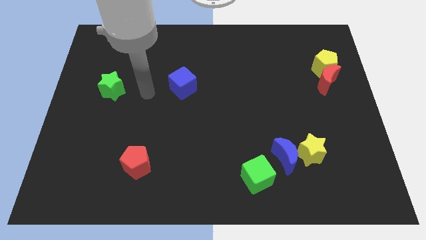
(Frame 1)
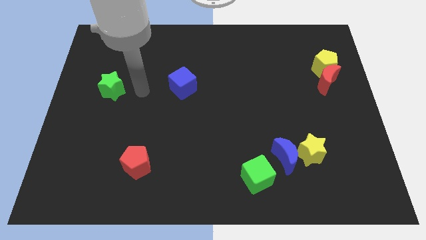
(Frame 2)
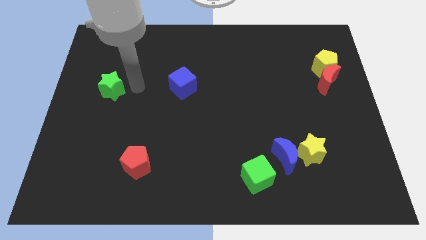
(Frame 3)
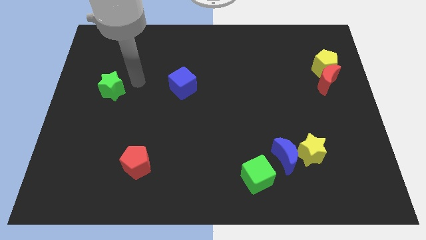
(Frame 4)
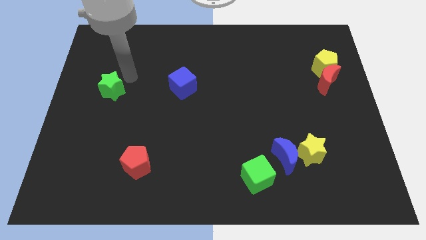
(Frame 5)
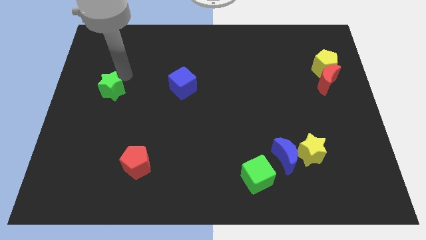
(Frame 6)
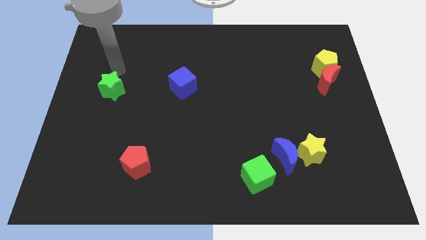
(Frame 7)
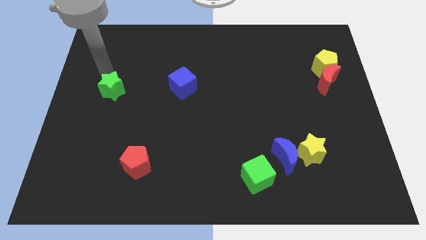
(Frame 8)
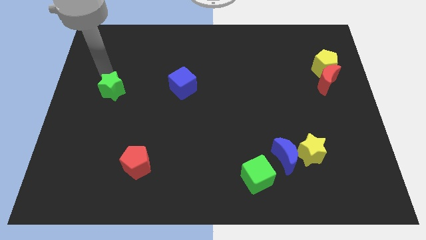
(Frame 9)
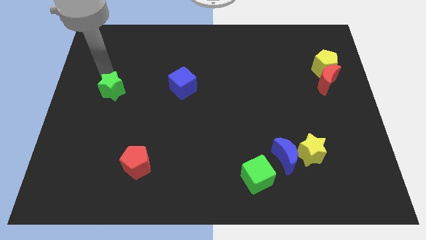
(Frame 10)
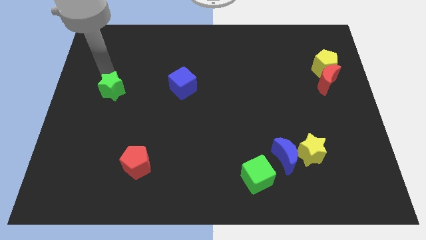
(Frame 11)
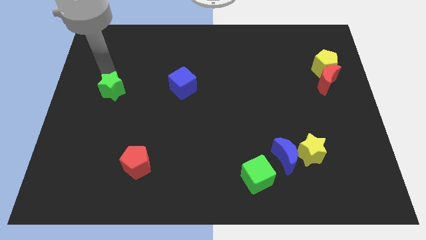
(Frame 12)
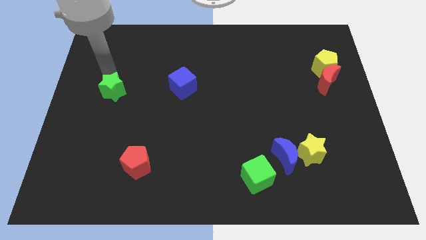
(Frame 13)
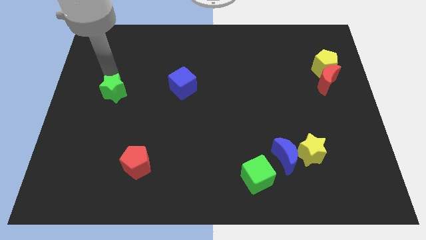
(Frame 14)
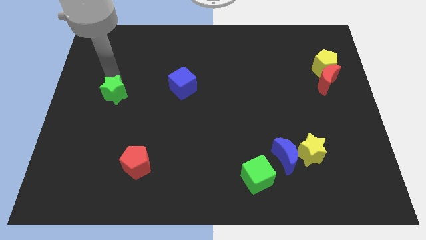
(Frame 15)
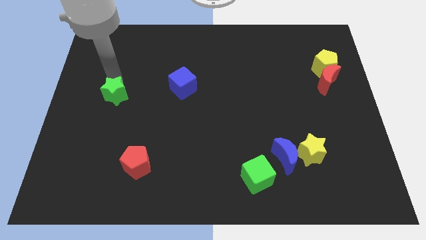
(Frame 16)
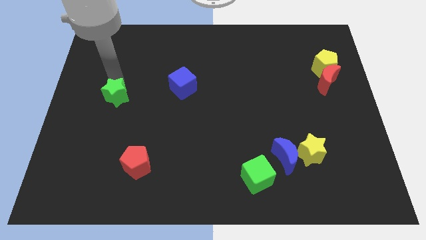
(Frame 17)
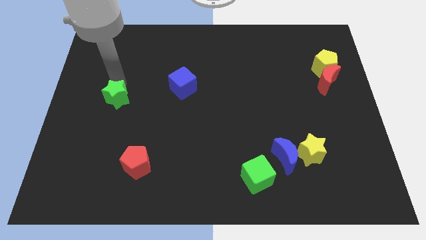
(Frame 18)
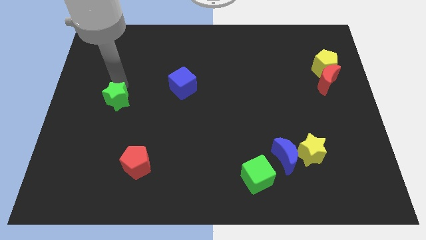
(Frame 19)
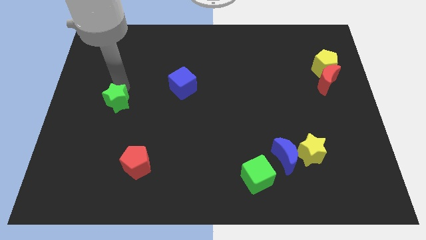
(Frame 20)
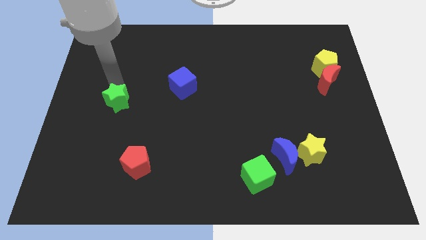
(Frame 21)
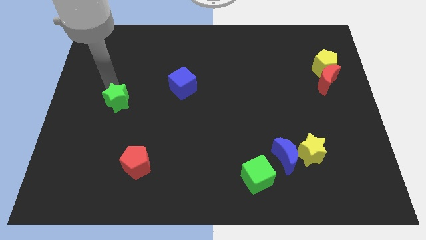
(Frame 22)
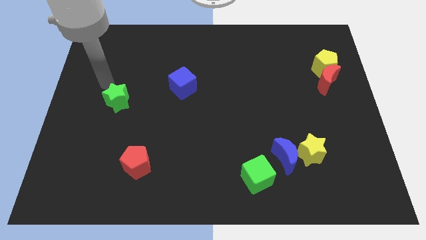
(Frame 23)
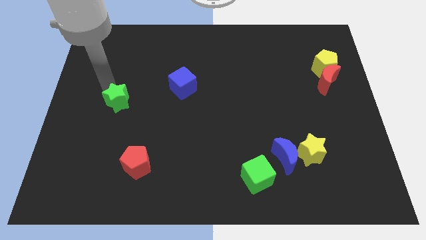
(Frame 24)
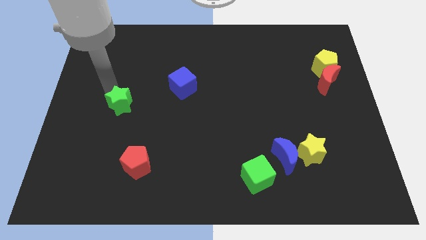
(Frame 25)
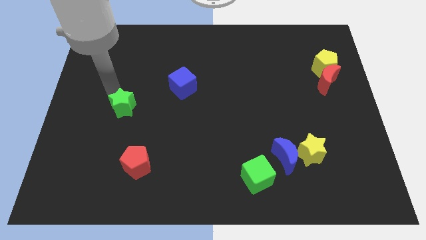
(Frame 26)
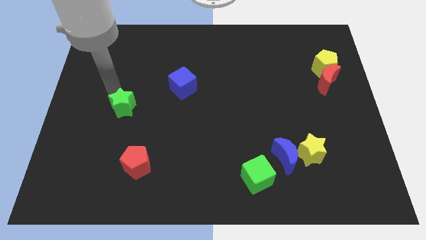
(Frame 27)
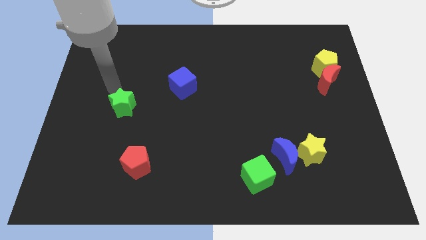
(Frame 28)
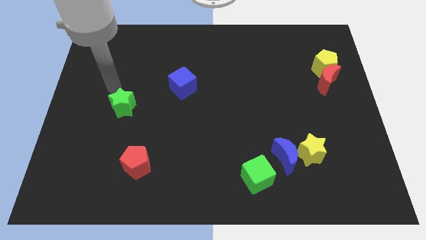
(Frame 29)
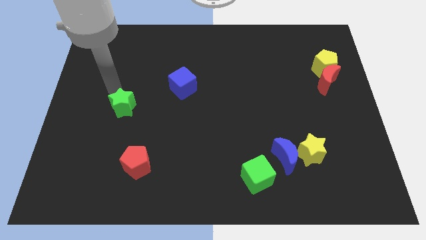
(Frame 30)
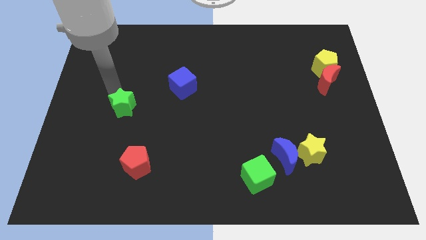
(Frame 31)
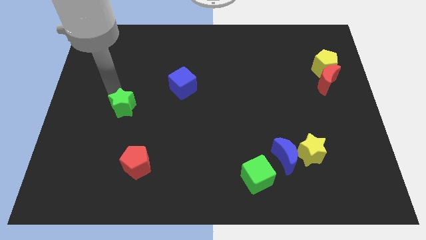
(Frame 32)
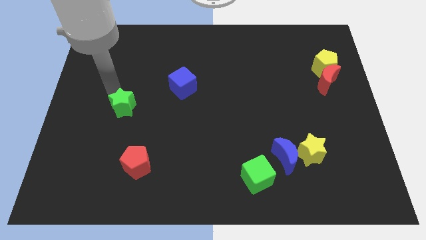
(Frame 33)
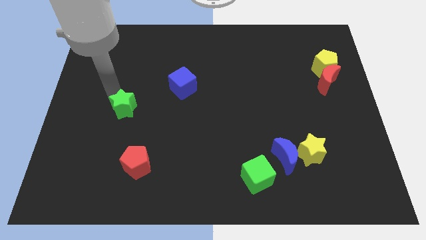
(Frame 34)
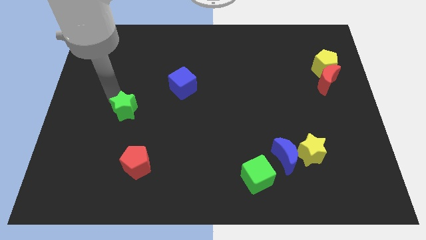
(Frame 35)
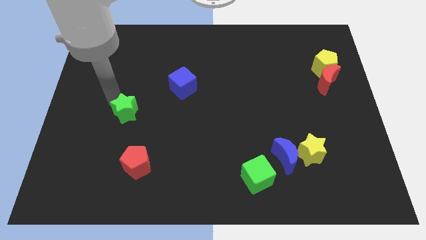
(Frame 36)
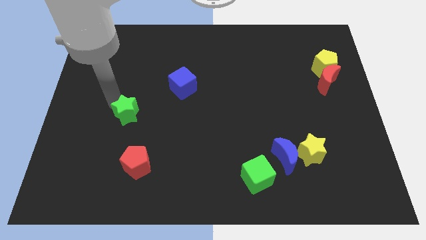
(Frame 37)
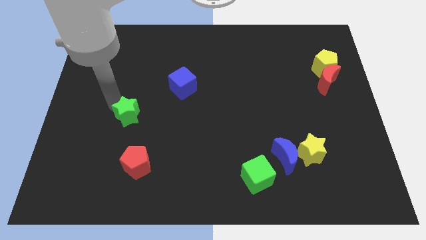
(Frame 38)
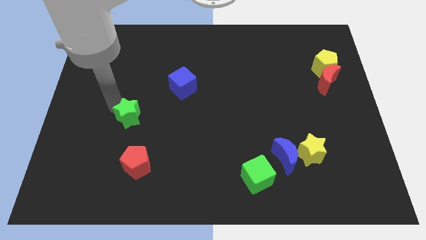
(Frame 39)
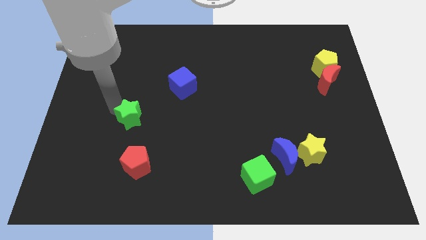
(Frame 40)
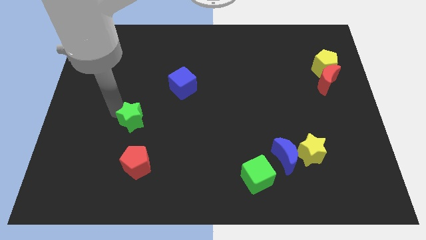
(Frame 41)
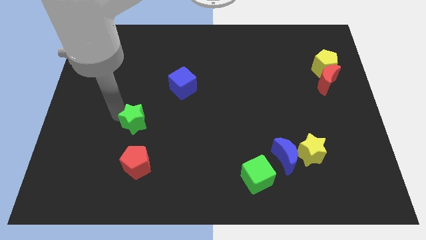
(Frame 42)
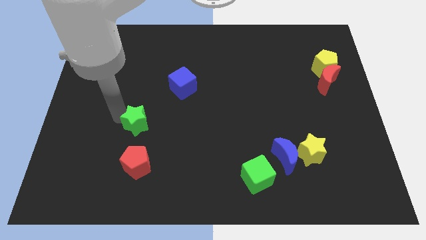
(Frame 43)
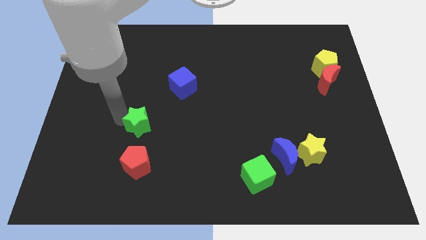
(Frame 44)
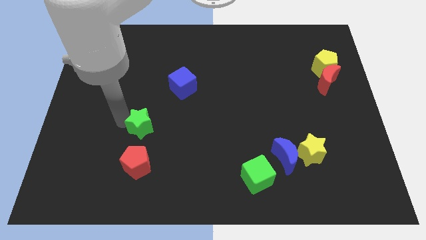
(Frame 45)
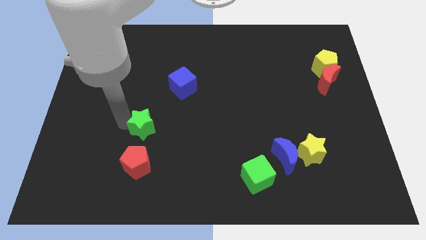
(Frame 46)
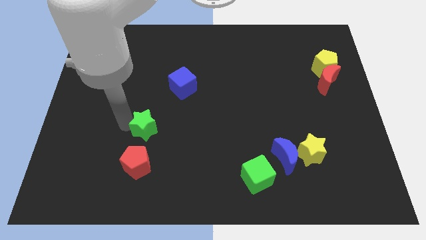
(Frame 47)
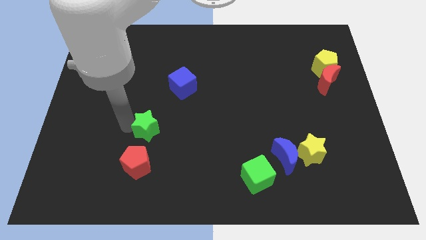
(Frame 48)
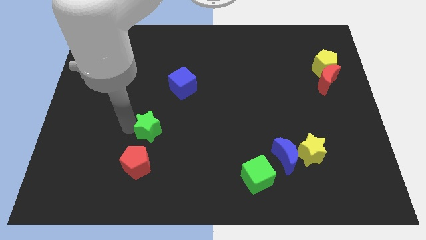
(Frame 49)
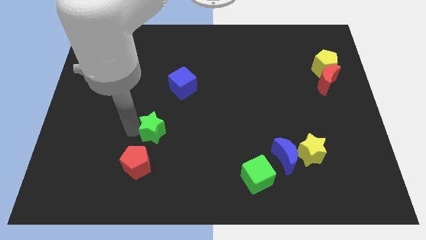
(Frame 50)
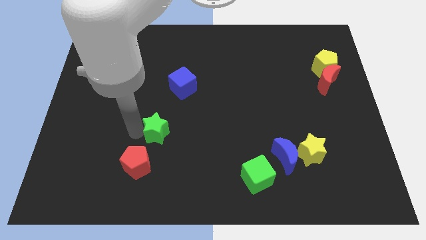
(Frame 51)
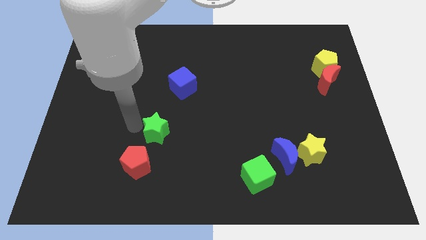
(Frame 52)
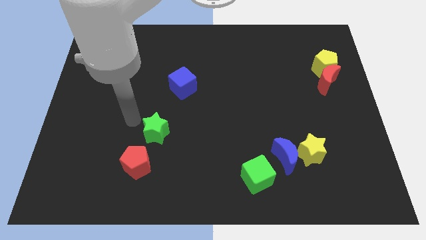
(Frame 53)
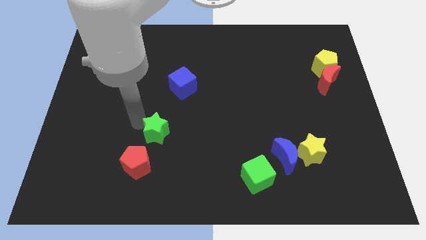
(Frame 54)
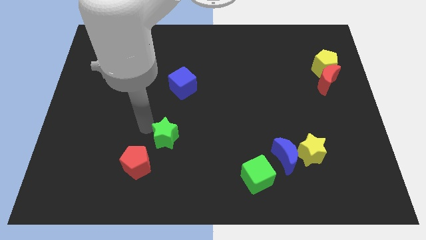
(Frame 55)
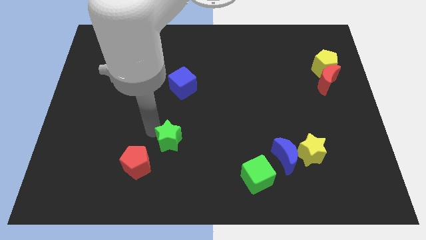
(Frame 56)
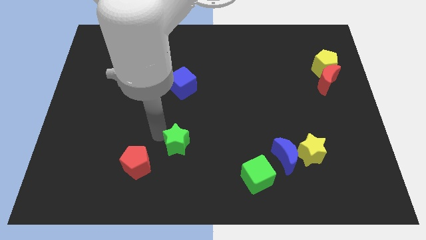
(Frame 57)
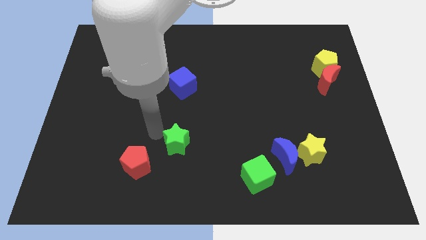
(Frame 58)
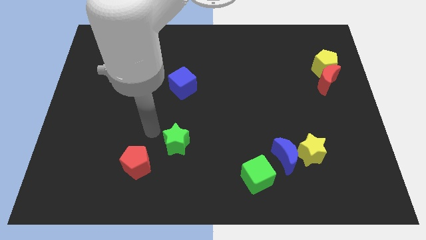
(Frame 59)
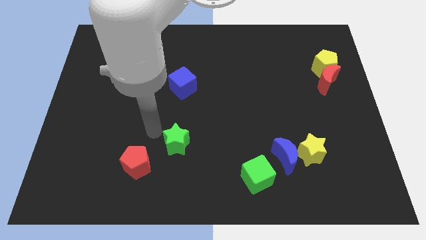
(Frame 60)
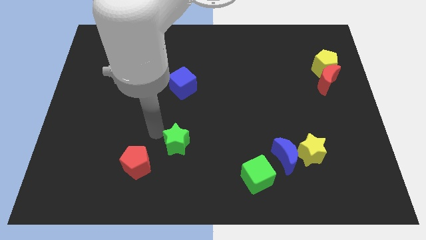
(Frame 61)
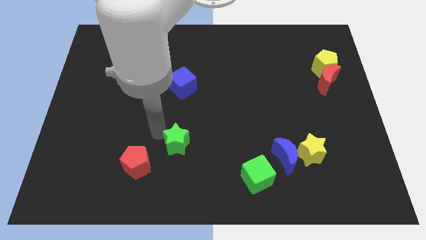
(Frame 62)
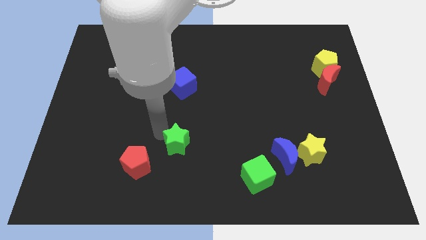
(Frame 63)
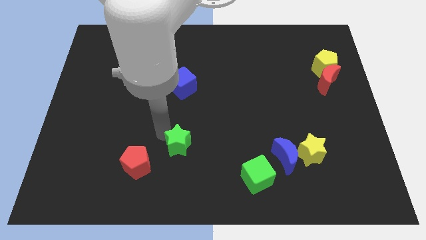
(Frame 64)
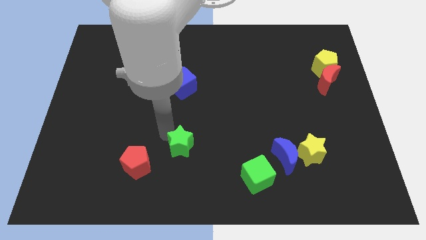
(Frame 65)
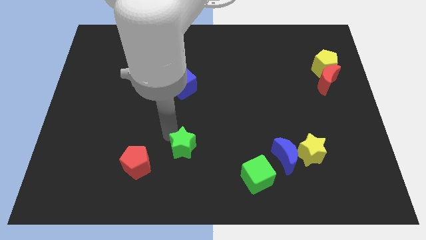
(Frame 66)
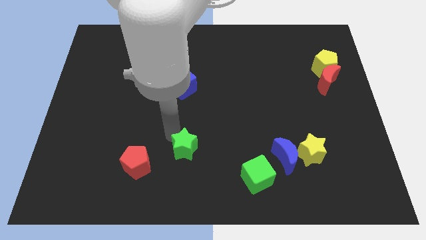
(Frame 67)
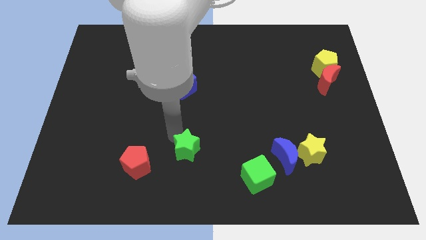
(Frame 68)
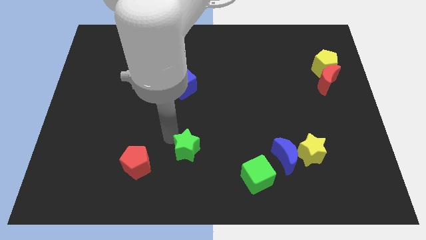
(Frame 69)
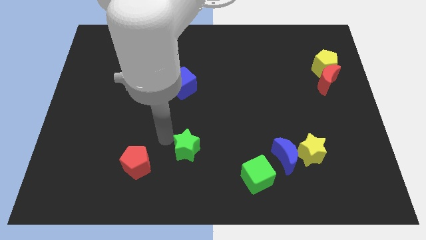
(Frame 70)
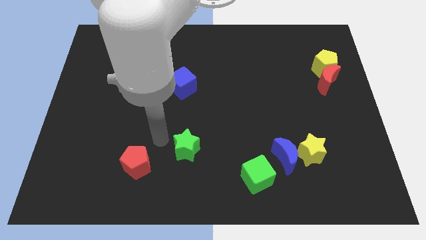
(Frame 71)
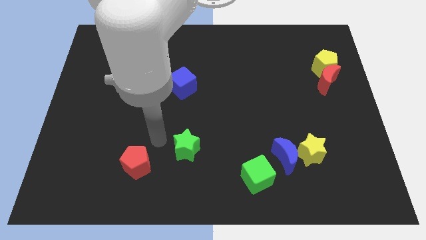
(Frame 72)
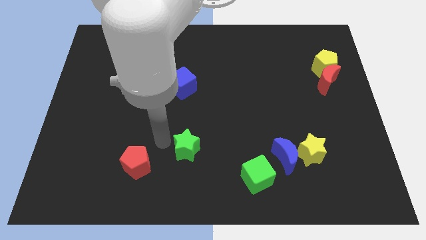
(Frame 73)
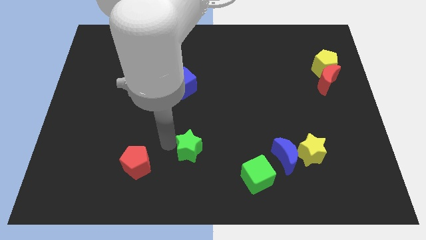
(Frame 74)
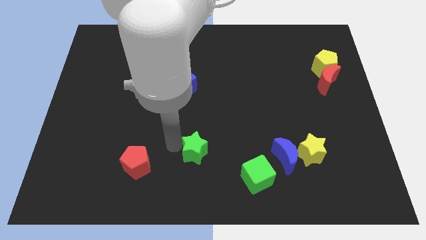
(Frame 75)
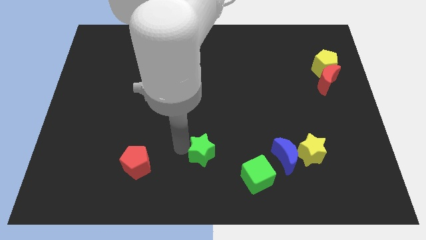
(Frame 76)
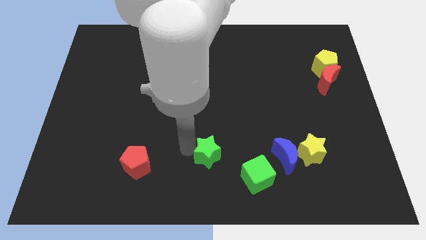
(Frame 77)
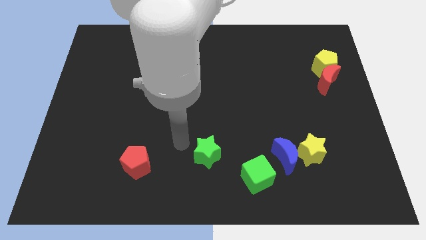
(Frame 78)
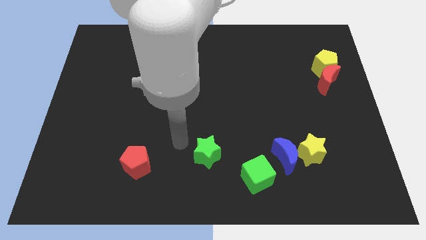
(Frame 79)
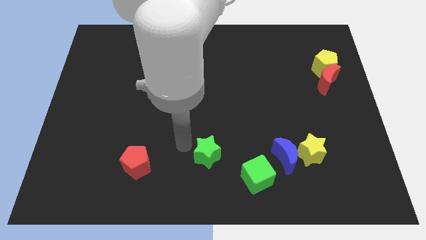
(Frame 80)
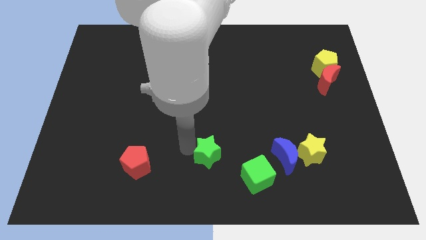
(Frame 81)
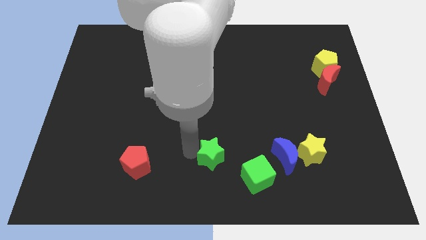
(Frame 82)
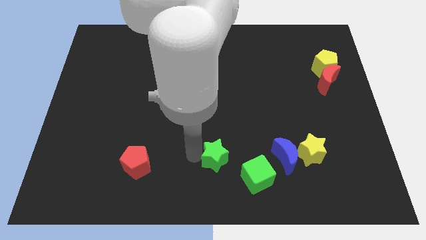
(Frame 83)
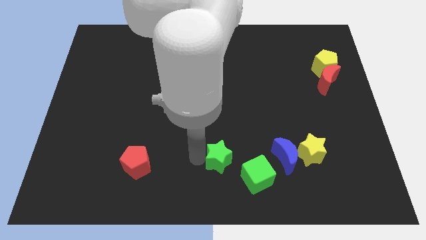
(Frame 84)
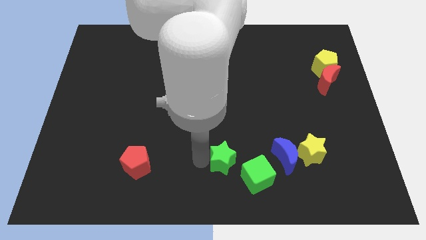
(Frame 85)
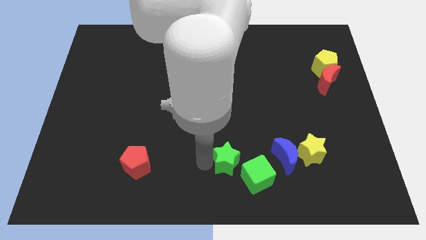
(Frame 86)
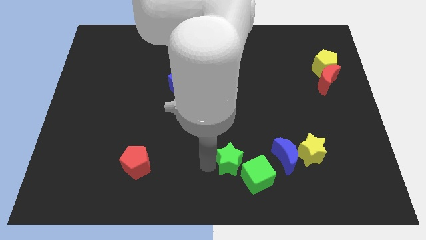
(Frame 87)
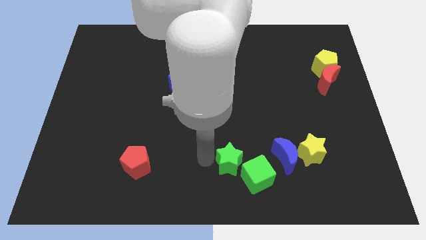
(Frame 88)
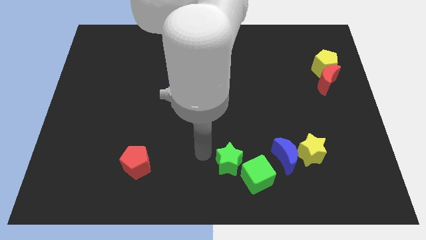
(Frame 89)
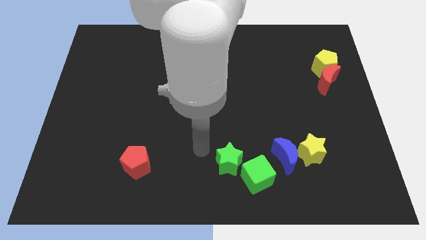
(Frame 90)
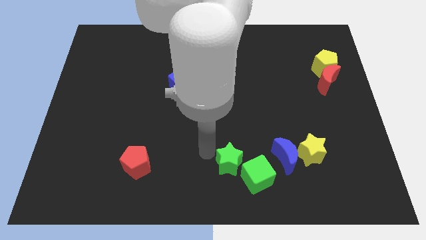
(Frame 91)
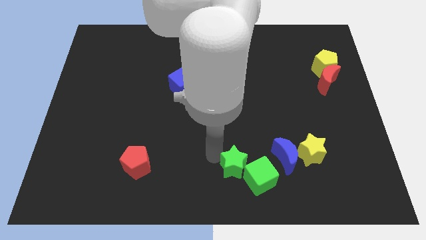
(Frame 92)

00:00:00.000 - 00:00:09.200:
move the green star to the green cube
